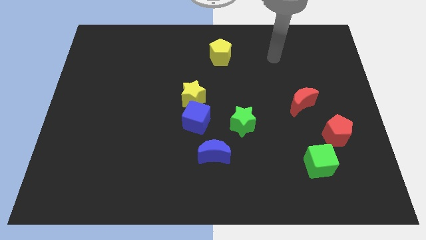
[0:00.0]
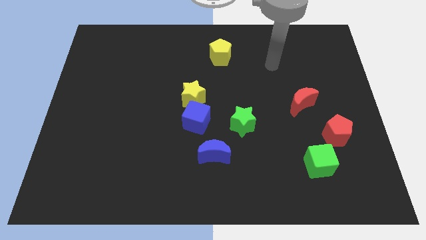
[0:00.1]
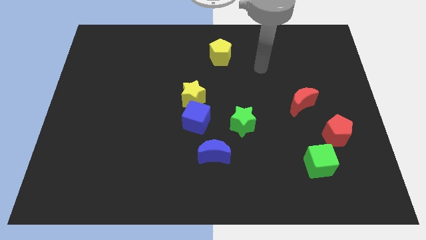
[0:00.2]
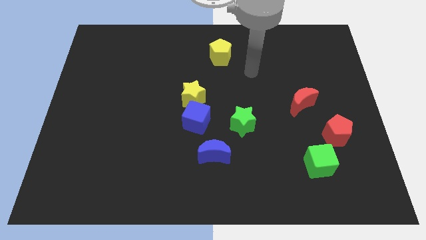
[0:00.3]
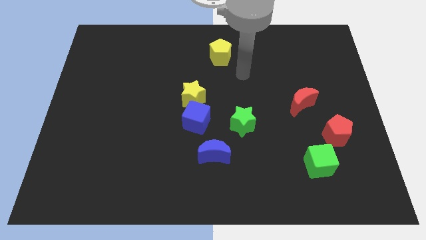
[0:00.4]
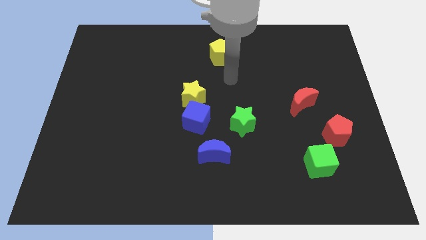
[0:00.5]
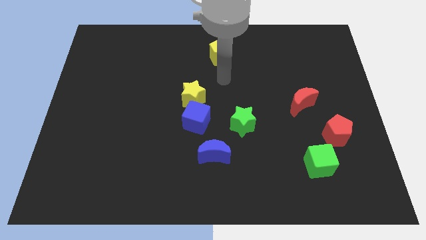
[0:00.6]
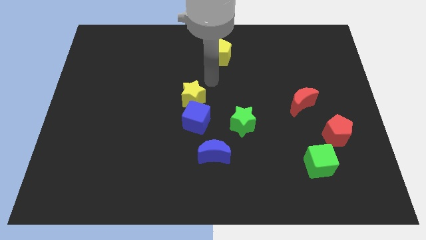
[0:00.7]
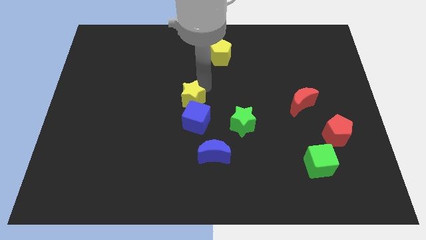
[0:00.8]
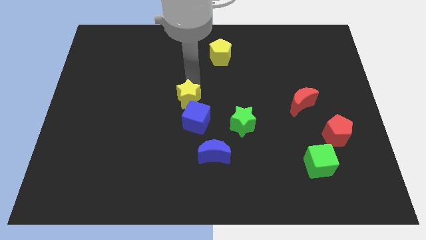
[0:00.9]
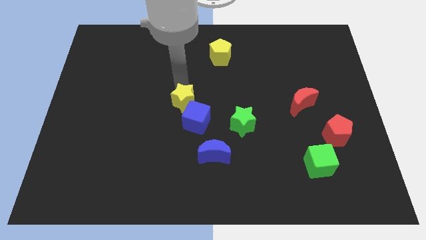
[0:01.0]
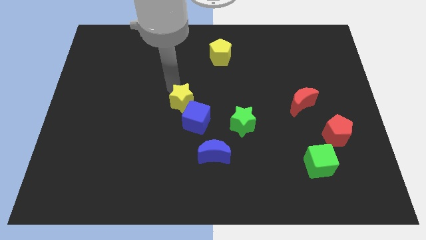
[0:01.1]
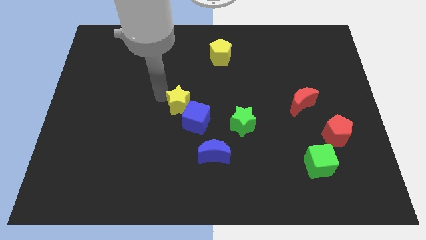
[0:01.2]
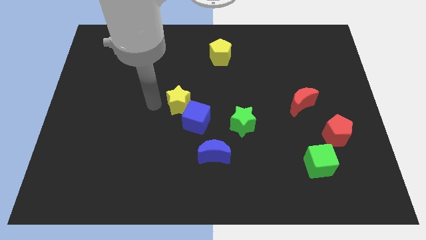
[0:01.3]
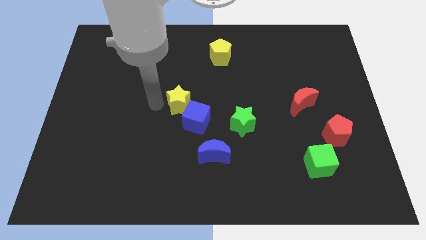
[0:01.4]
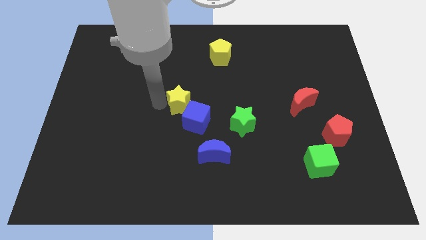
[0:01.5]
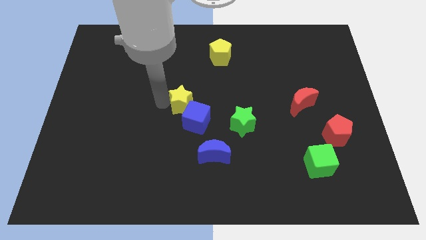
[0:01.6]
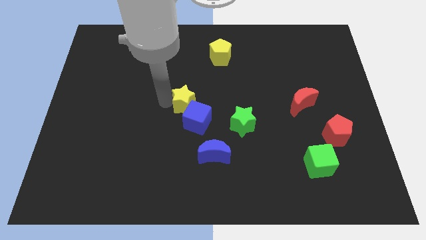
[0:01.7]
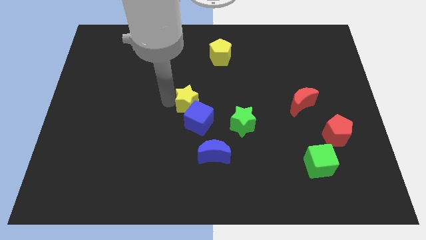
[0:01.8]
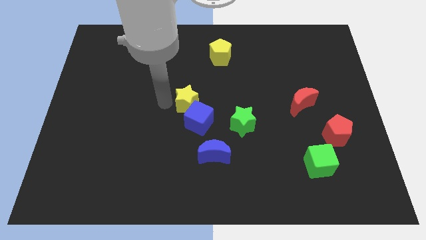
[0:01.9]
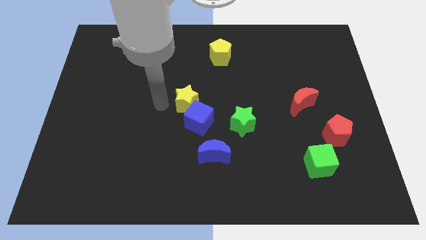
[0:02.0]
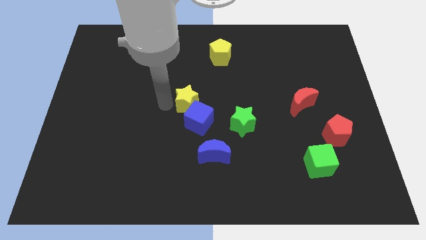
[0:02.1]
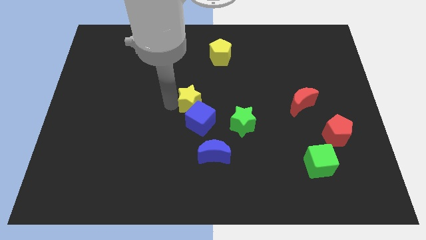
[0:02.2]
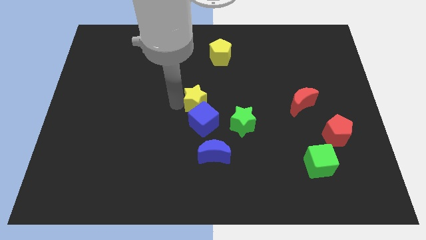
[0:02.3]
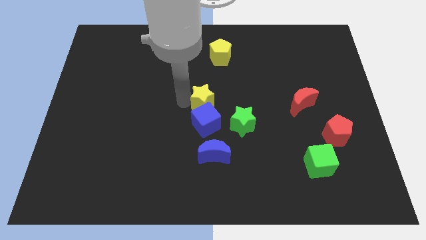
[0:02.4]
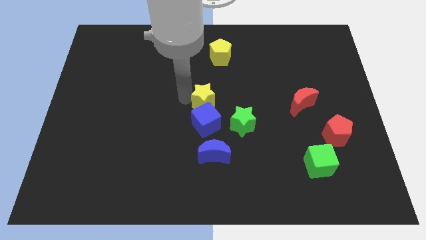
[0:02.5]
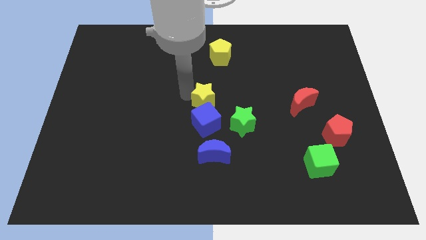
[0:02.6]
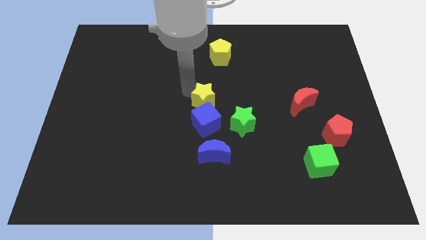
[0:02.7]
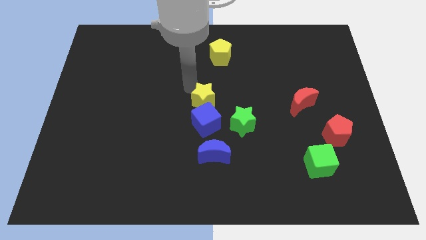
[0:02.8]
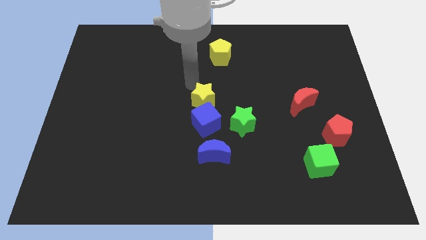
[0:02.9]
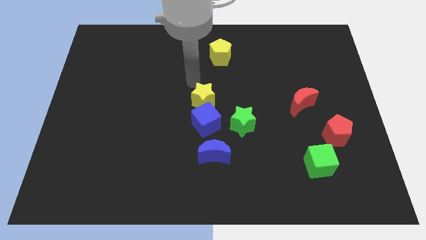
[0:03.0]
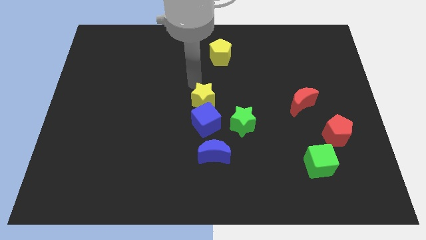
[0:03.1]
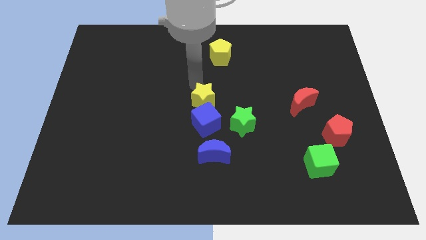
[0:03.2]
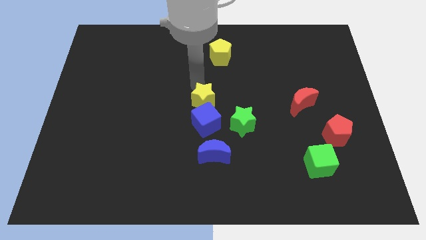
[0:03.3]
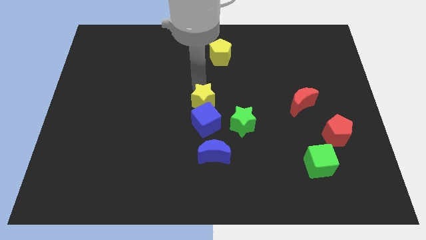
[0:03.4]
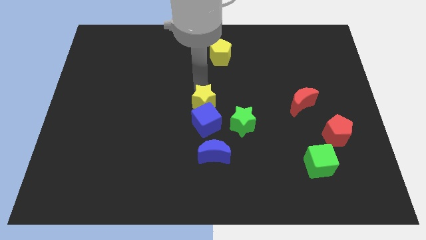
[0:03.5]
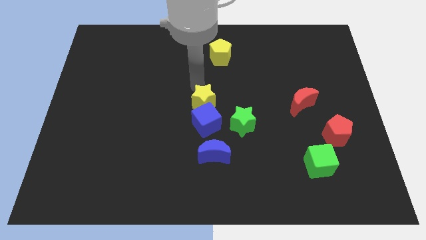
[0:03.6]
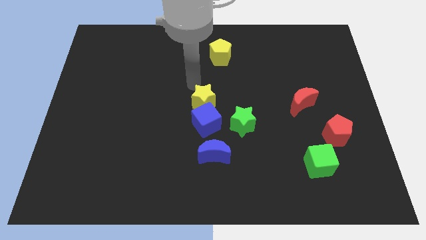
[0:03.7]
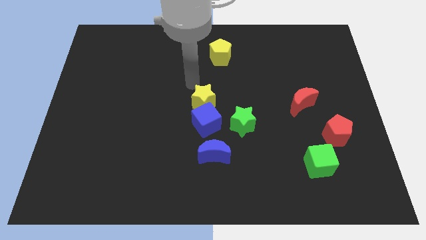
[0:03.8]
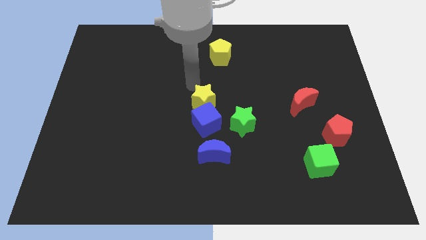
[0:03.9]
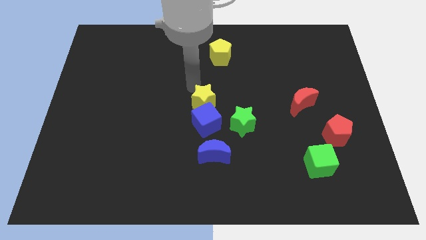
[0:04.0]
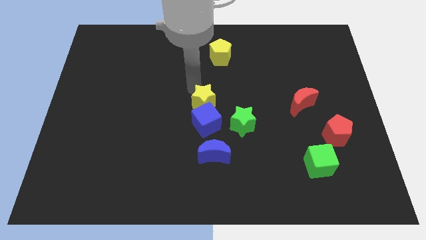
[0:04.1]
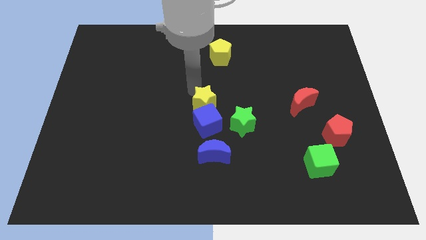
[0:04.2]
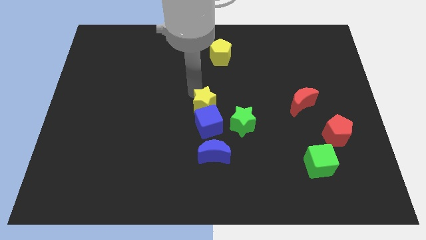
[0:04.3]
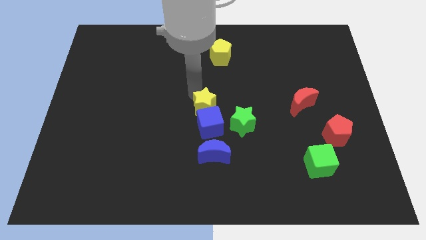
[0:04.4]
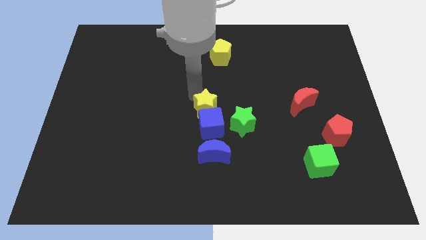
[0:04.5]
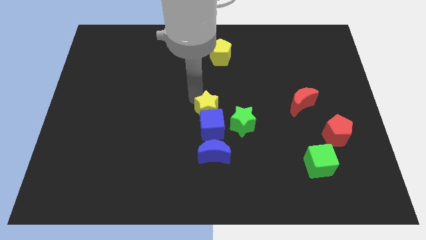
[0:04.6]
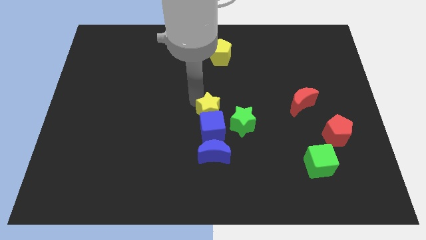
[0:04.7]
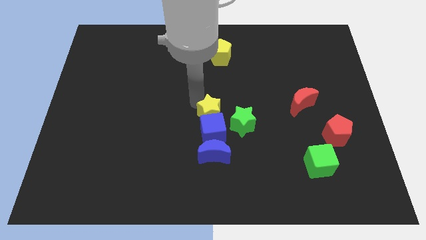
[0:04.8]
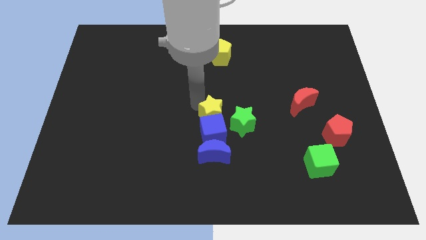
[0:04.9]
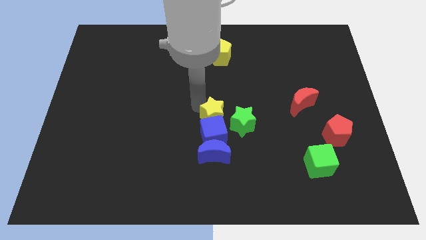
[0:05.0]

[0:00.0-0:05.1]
push the yellow star down and right somewhat

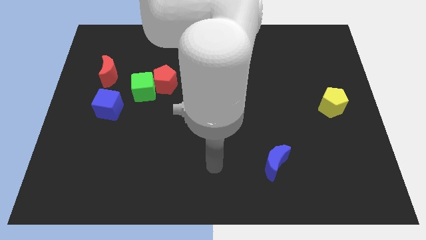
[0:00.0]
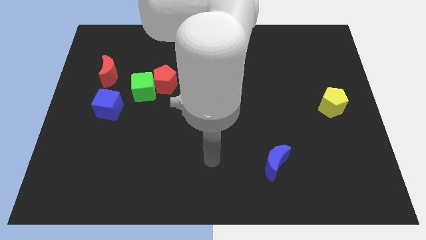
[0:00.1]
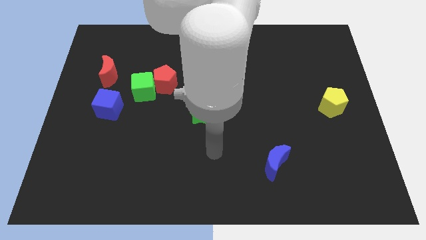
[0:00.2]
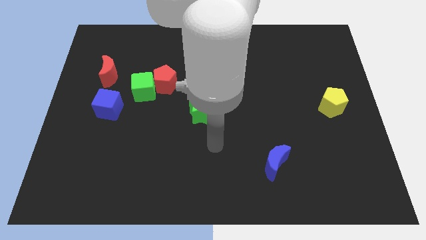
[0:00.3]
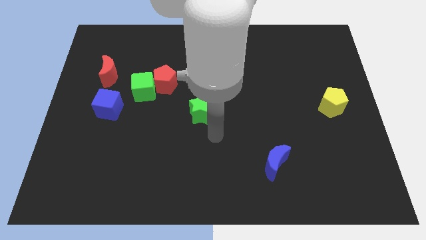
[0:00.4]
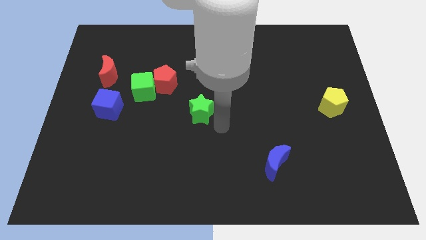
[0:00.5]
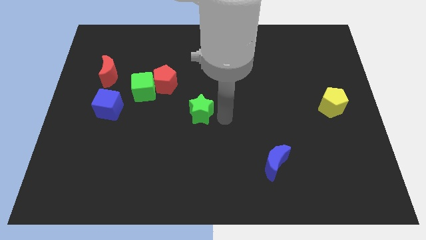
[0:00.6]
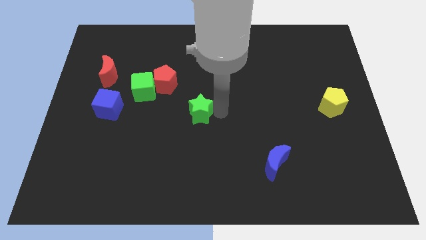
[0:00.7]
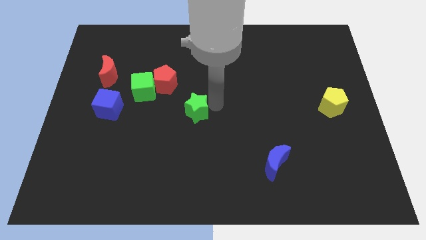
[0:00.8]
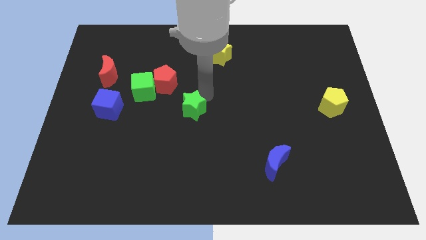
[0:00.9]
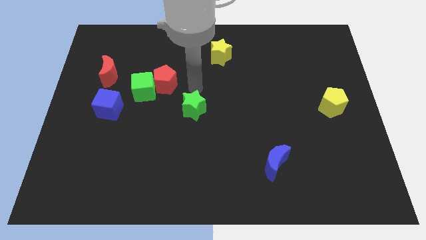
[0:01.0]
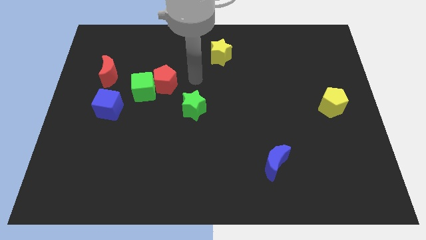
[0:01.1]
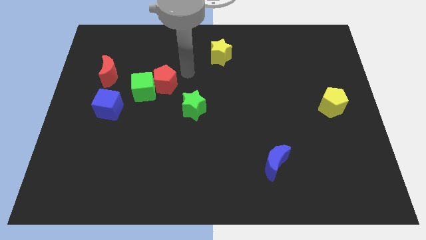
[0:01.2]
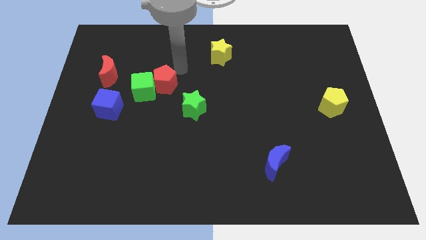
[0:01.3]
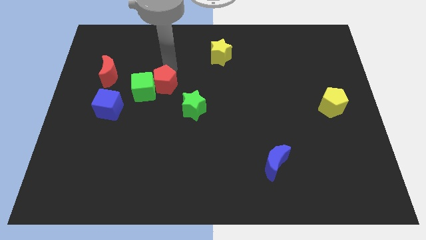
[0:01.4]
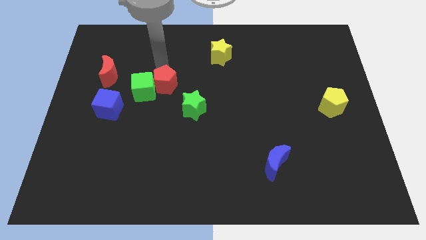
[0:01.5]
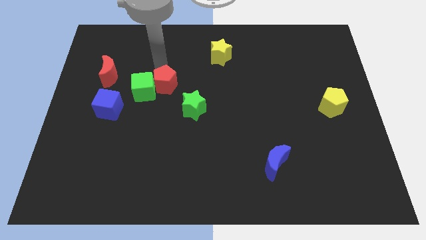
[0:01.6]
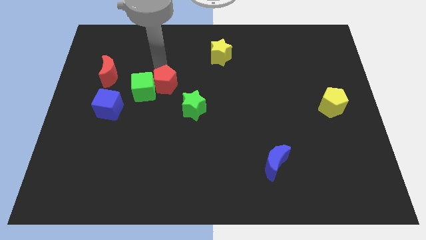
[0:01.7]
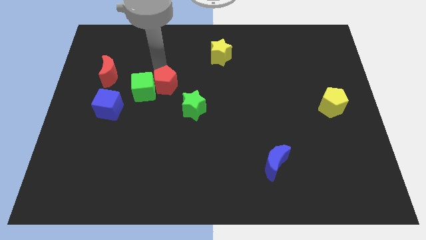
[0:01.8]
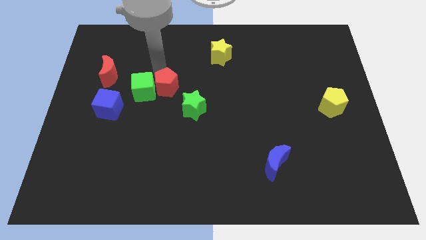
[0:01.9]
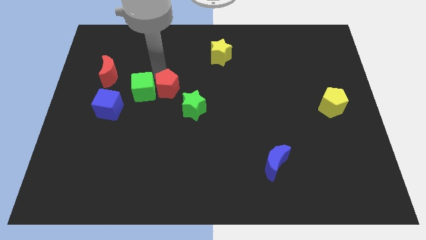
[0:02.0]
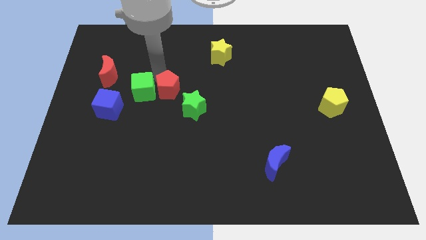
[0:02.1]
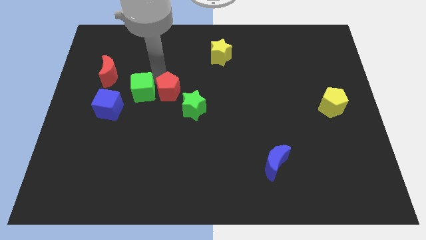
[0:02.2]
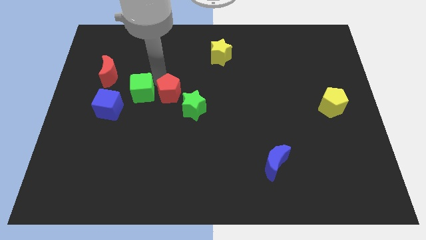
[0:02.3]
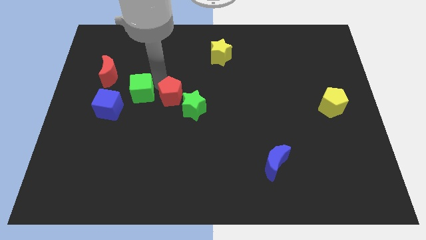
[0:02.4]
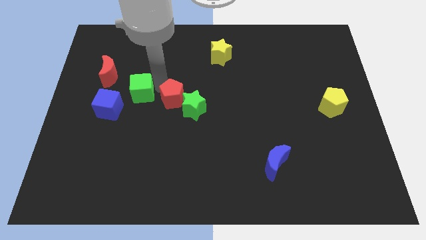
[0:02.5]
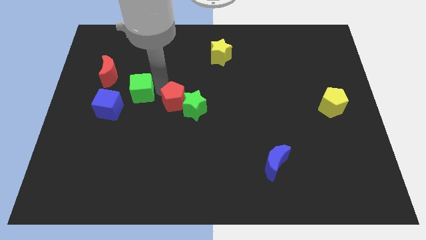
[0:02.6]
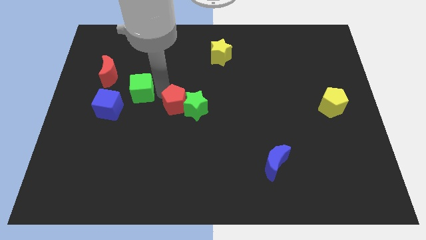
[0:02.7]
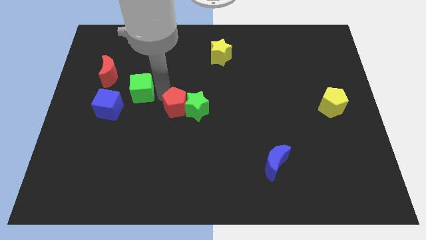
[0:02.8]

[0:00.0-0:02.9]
slightly move the red pentagon down and right
